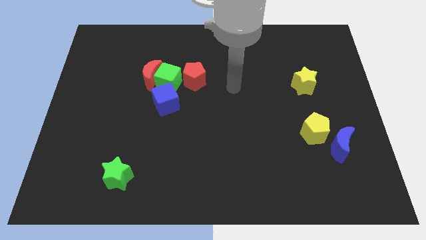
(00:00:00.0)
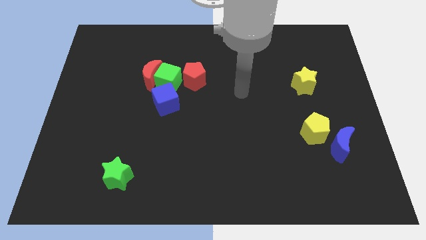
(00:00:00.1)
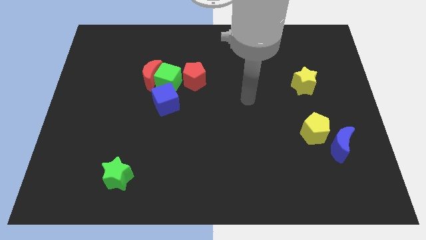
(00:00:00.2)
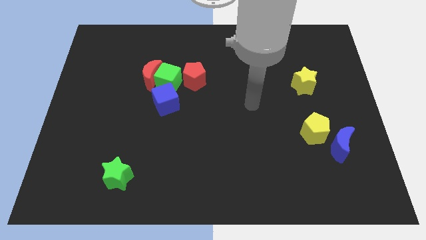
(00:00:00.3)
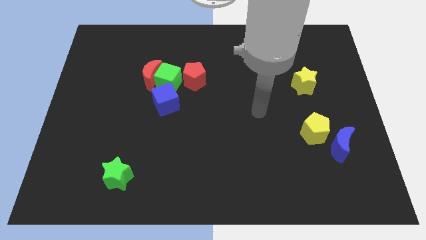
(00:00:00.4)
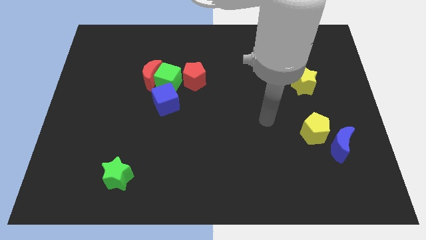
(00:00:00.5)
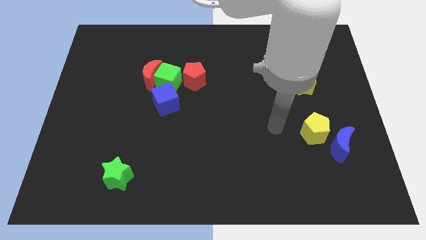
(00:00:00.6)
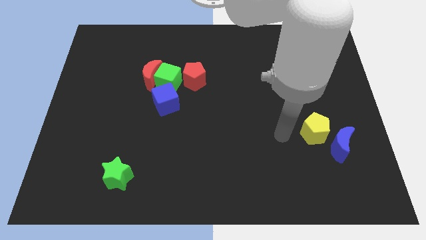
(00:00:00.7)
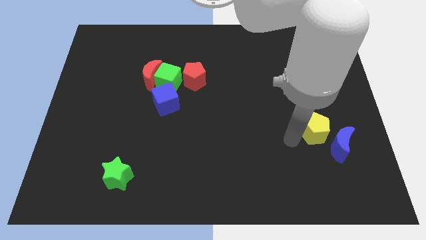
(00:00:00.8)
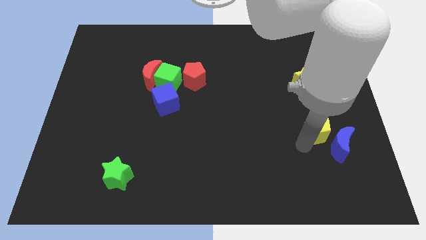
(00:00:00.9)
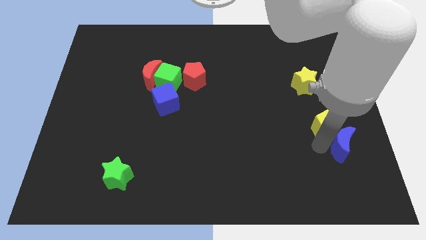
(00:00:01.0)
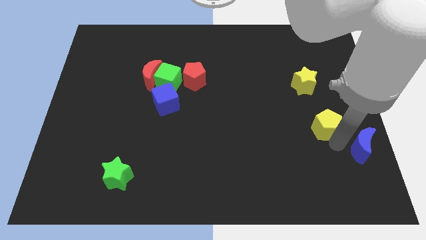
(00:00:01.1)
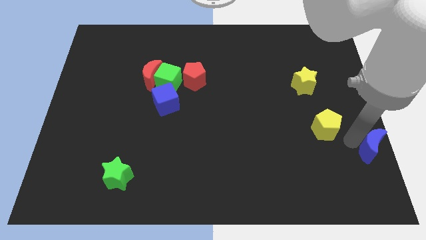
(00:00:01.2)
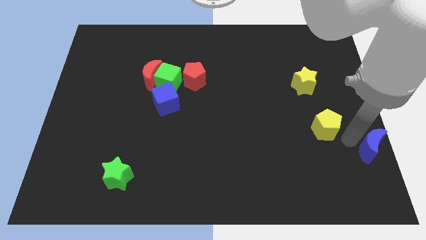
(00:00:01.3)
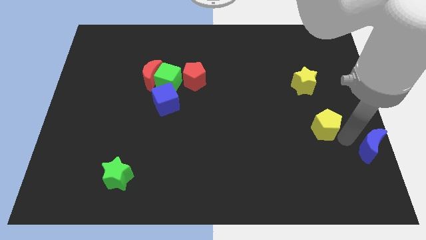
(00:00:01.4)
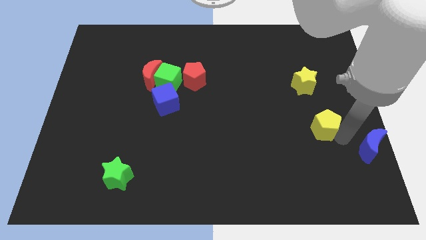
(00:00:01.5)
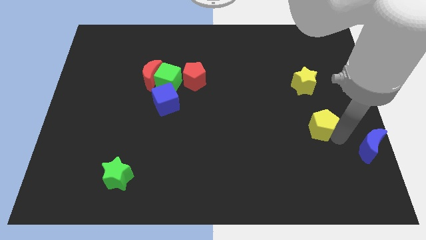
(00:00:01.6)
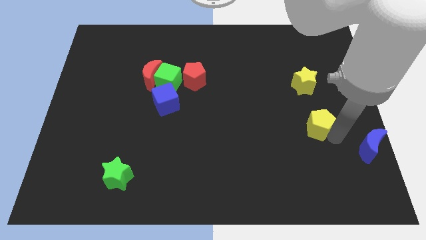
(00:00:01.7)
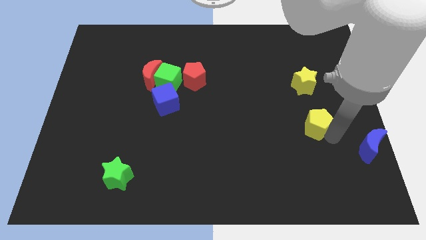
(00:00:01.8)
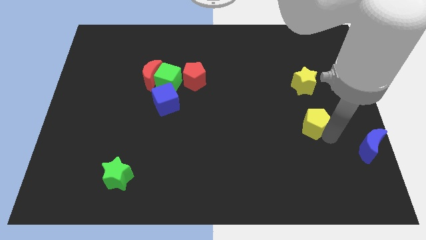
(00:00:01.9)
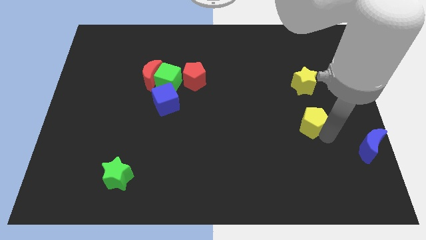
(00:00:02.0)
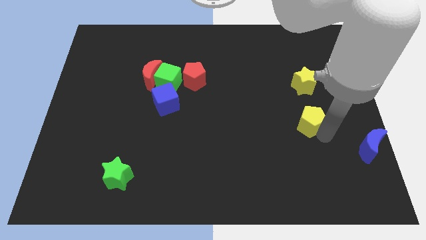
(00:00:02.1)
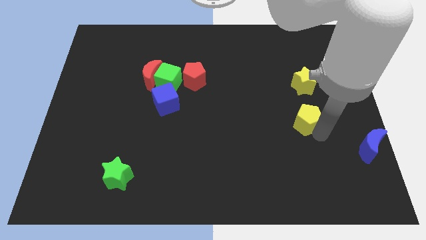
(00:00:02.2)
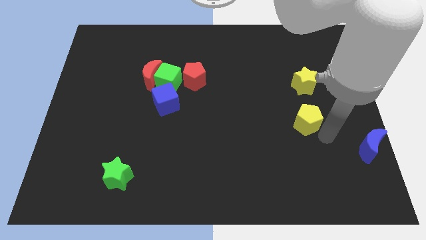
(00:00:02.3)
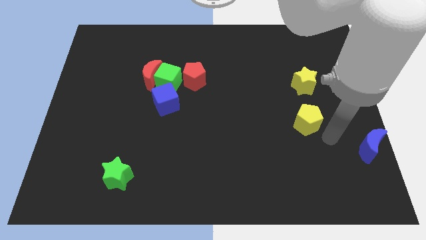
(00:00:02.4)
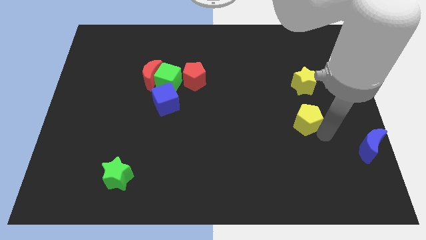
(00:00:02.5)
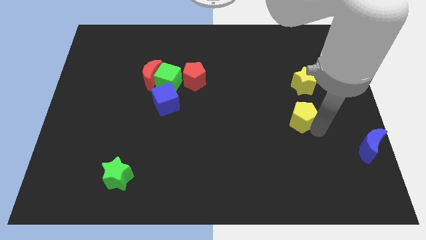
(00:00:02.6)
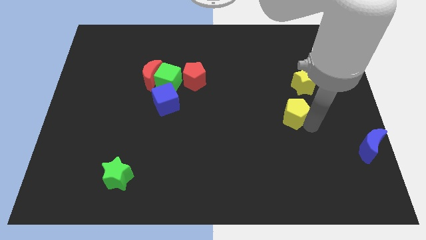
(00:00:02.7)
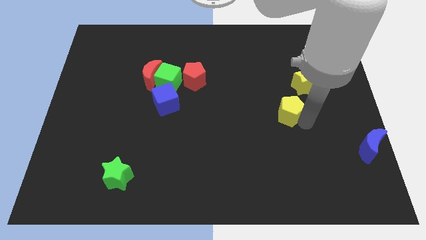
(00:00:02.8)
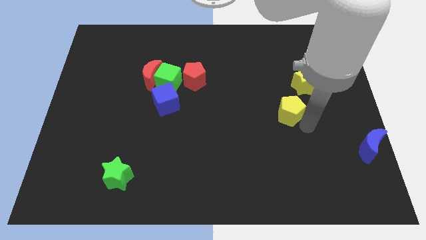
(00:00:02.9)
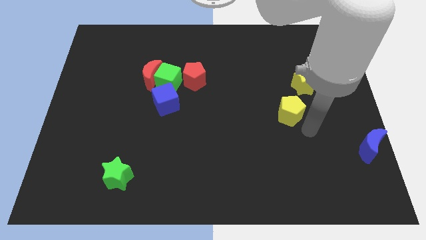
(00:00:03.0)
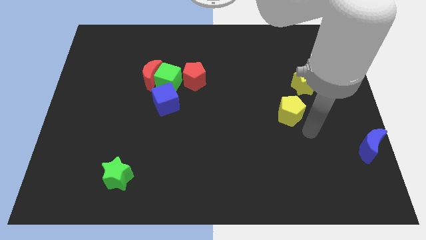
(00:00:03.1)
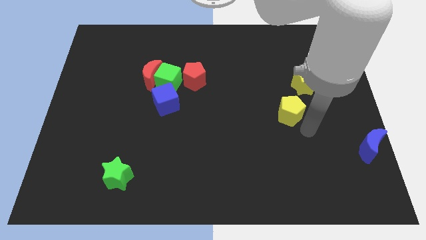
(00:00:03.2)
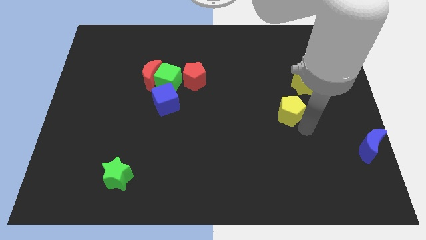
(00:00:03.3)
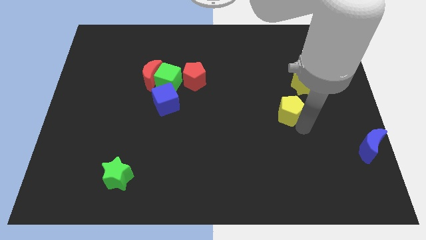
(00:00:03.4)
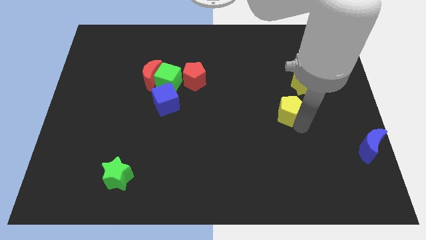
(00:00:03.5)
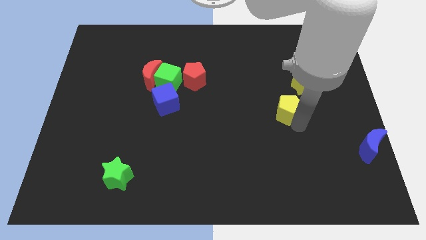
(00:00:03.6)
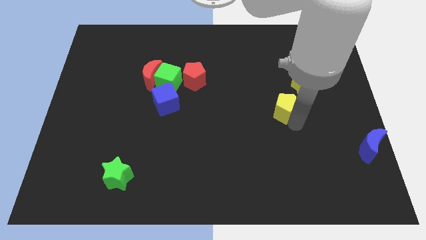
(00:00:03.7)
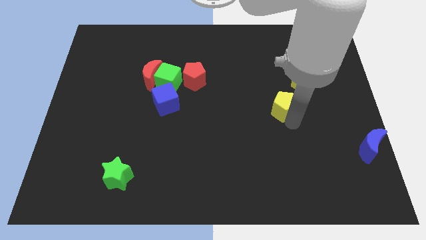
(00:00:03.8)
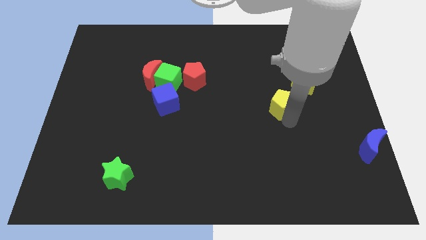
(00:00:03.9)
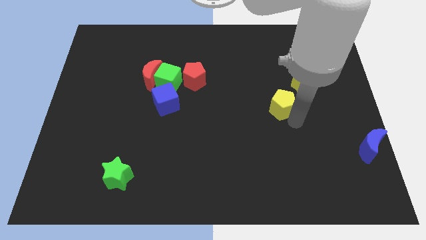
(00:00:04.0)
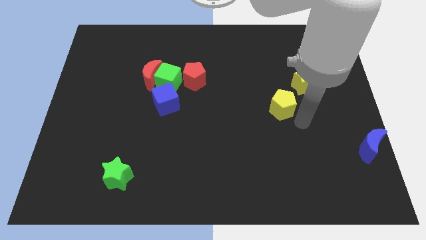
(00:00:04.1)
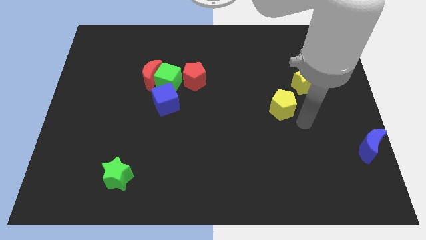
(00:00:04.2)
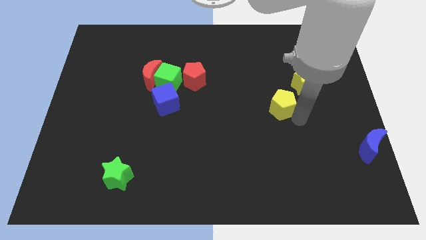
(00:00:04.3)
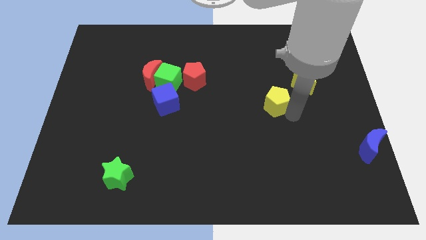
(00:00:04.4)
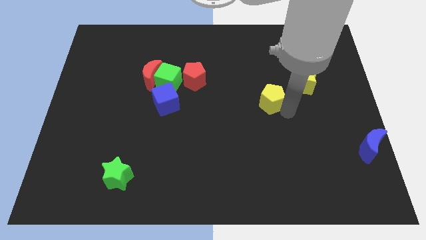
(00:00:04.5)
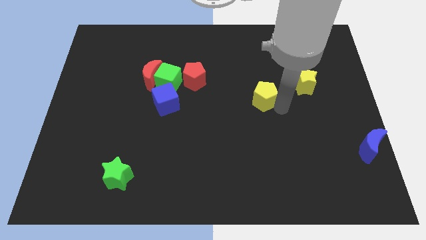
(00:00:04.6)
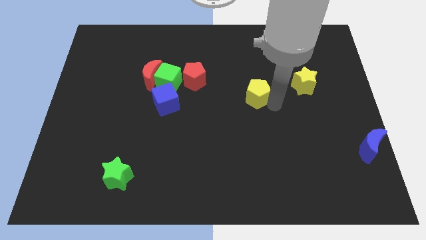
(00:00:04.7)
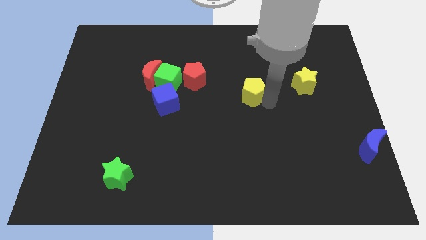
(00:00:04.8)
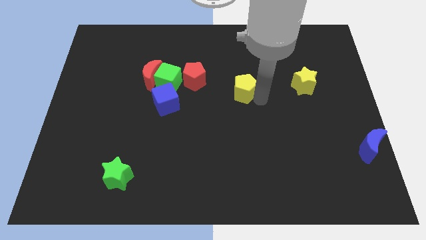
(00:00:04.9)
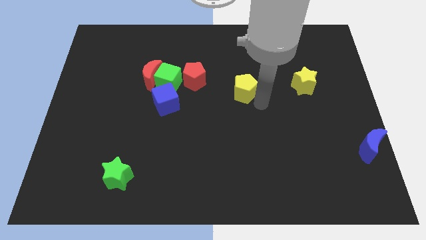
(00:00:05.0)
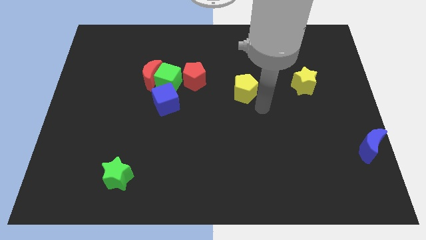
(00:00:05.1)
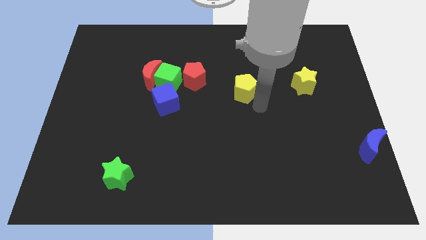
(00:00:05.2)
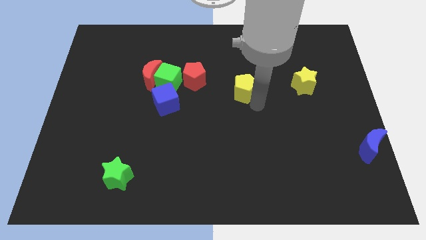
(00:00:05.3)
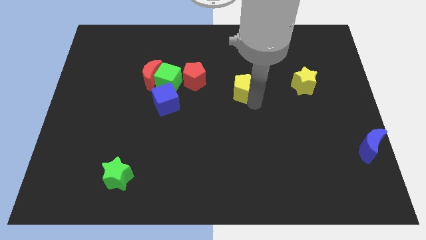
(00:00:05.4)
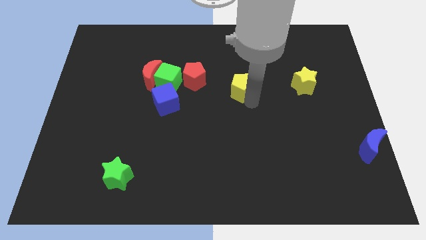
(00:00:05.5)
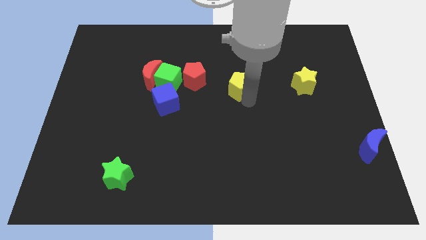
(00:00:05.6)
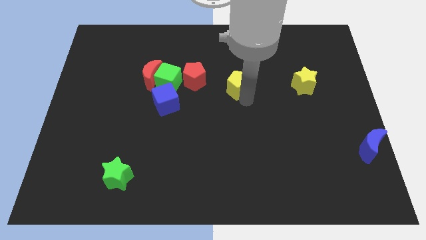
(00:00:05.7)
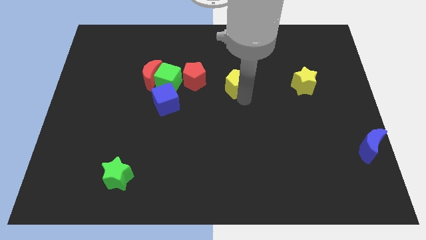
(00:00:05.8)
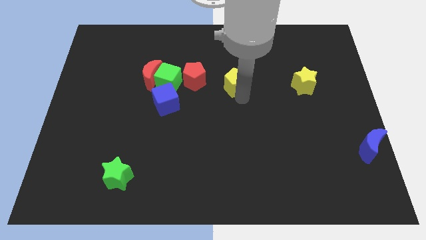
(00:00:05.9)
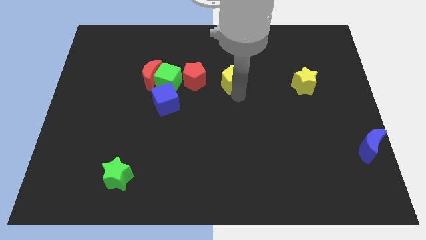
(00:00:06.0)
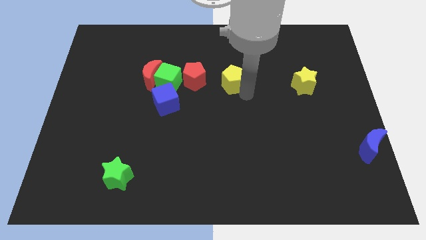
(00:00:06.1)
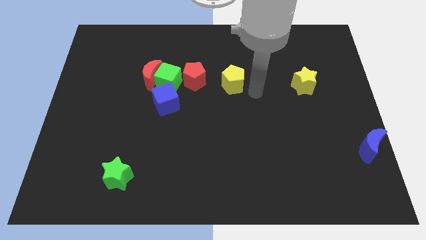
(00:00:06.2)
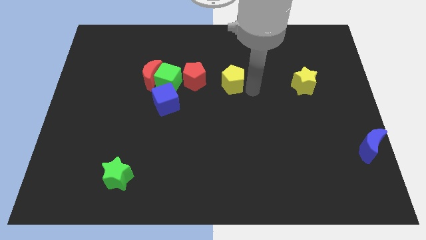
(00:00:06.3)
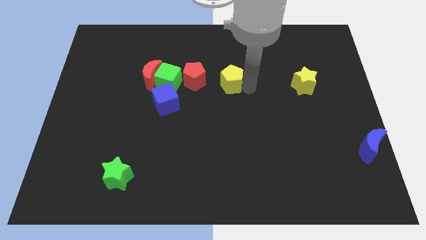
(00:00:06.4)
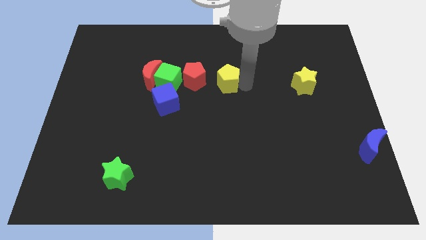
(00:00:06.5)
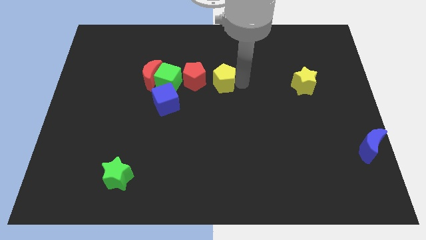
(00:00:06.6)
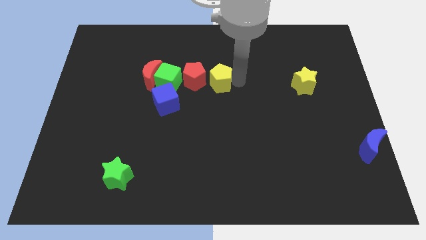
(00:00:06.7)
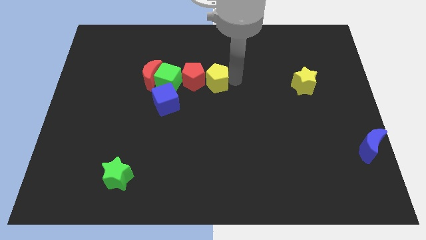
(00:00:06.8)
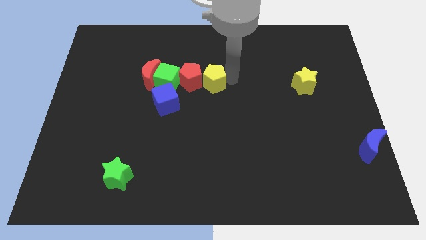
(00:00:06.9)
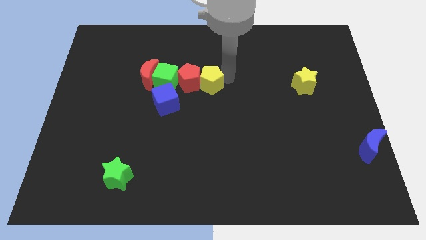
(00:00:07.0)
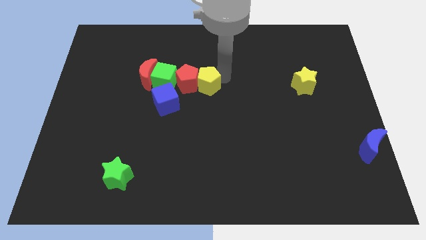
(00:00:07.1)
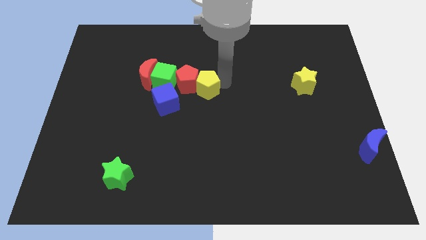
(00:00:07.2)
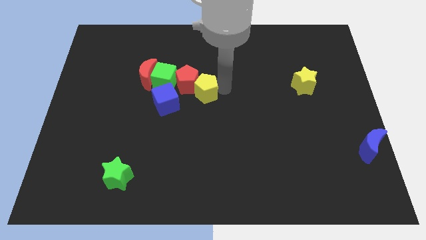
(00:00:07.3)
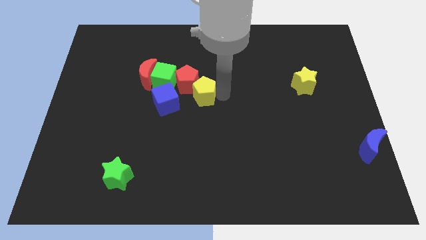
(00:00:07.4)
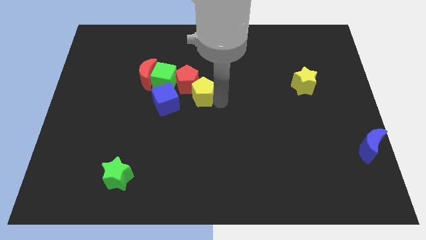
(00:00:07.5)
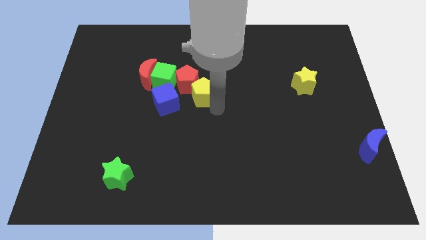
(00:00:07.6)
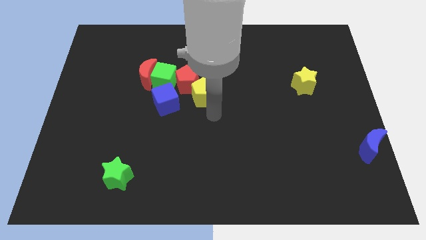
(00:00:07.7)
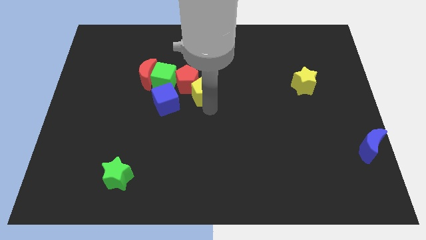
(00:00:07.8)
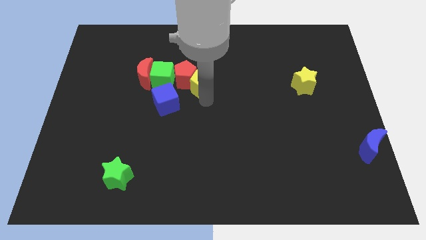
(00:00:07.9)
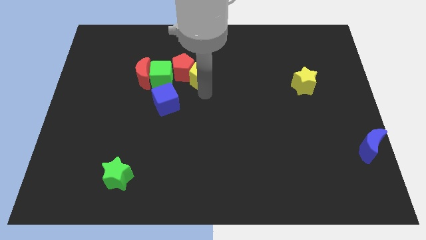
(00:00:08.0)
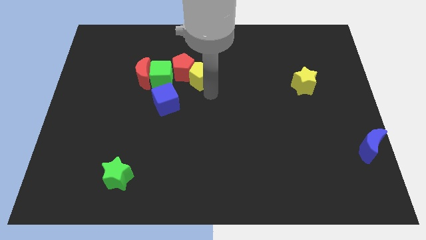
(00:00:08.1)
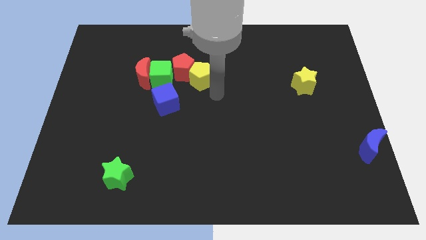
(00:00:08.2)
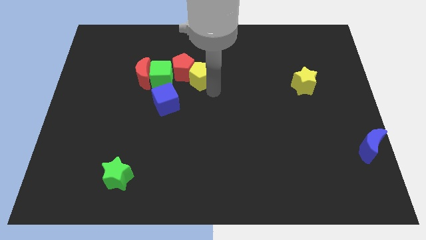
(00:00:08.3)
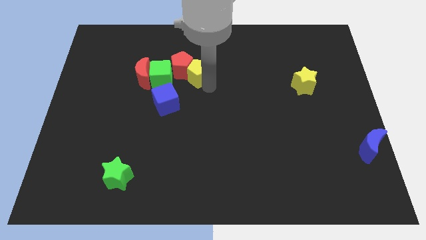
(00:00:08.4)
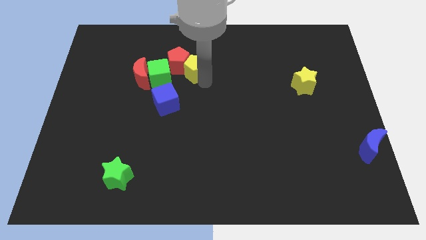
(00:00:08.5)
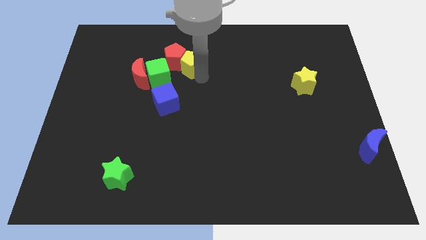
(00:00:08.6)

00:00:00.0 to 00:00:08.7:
put the yellow pentagon to the top right of the green cube

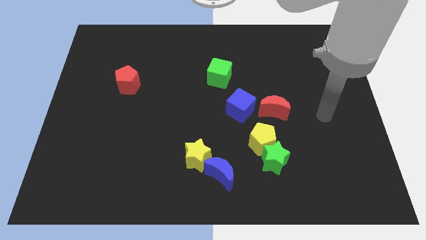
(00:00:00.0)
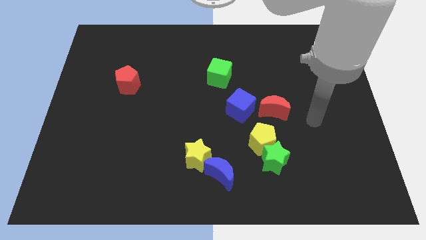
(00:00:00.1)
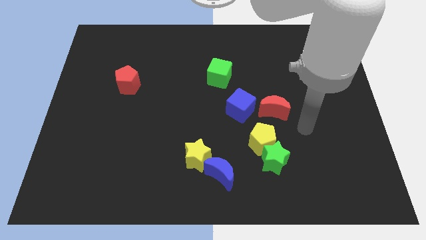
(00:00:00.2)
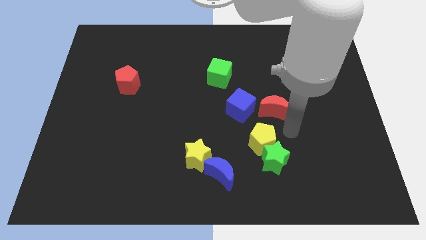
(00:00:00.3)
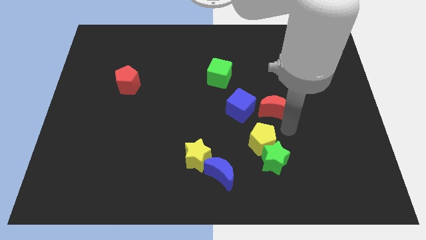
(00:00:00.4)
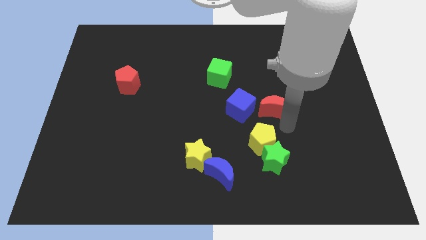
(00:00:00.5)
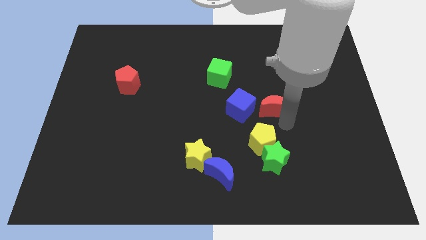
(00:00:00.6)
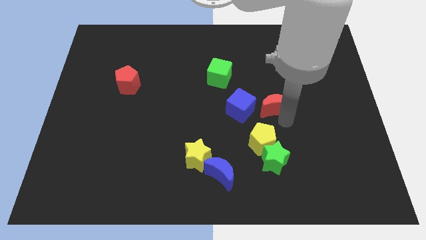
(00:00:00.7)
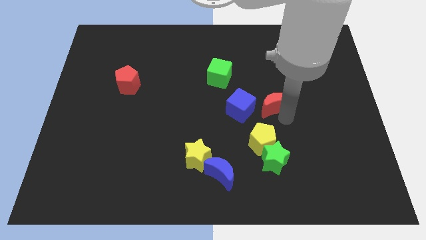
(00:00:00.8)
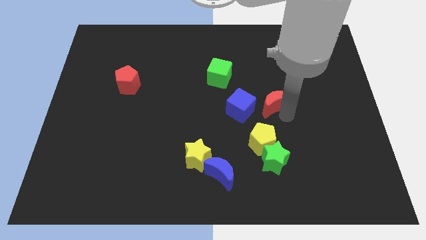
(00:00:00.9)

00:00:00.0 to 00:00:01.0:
push the red moon diagonally up and to the right of the blue cube
